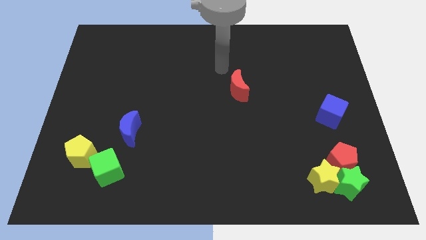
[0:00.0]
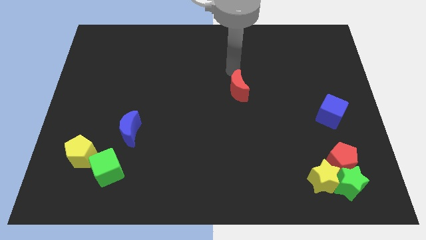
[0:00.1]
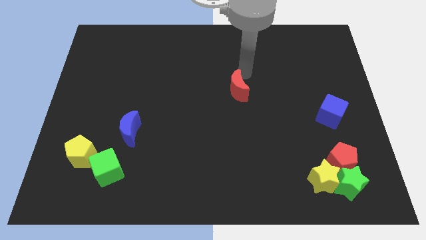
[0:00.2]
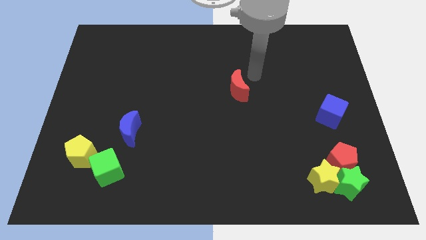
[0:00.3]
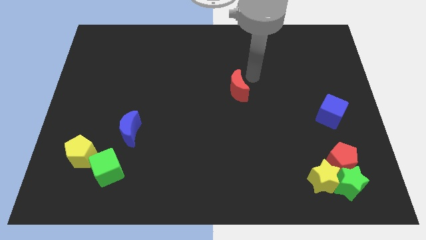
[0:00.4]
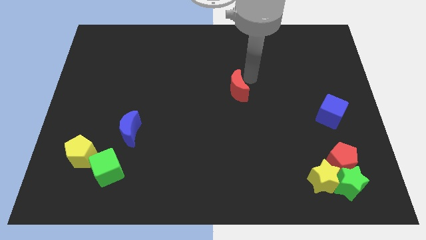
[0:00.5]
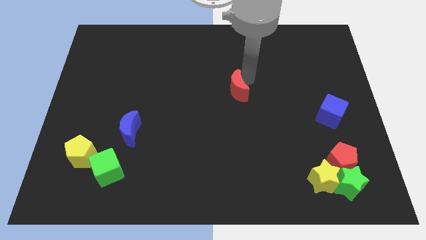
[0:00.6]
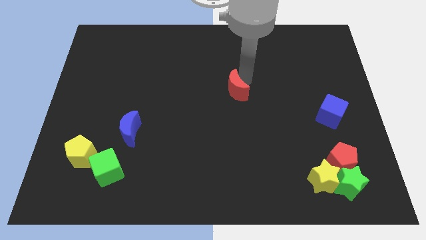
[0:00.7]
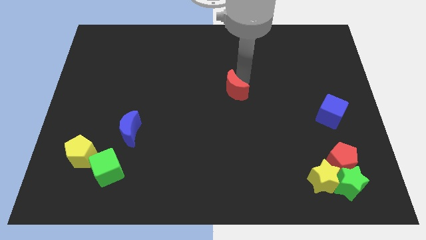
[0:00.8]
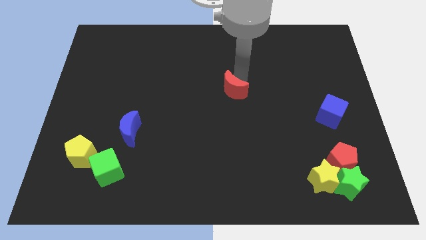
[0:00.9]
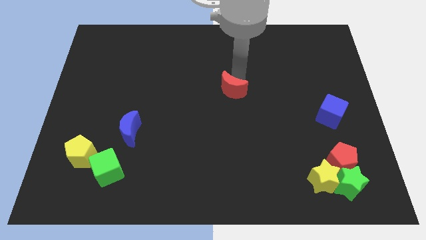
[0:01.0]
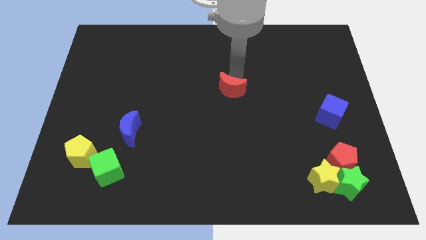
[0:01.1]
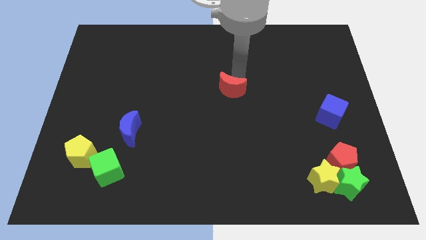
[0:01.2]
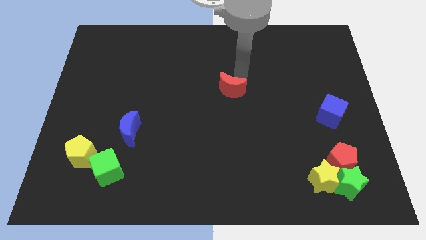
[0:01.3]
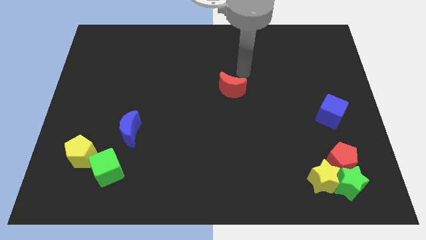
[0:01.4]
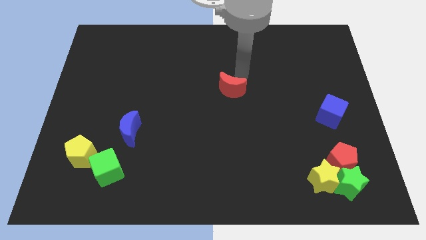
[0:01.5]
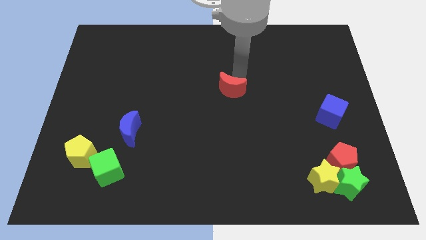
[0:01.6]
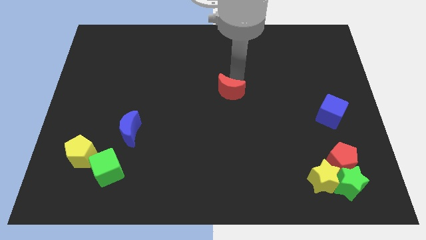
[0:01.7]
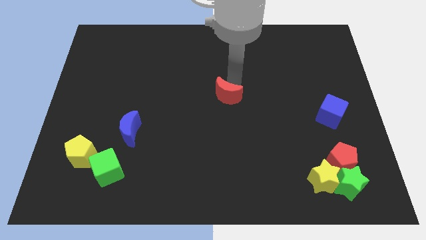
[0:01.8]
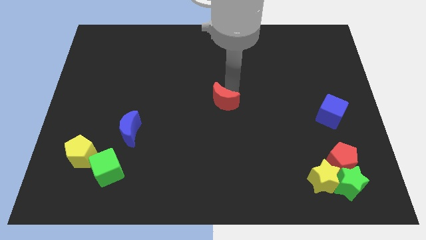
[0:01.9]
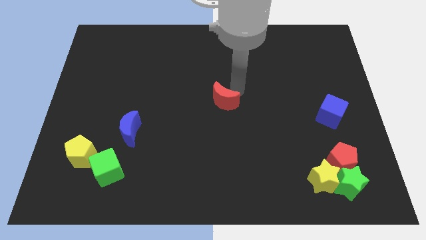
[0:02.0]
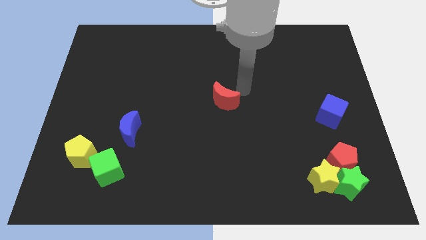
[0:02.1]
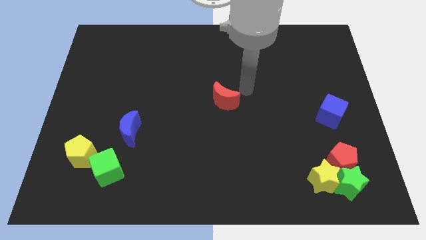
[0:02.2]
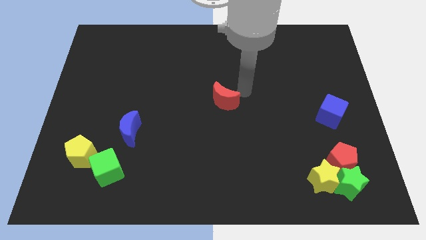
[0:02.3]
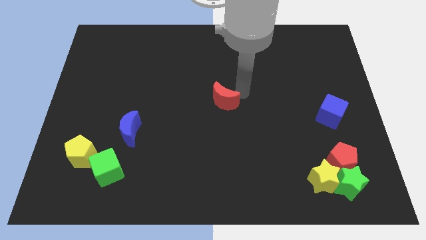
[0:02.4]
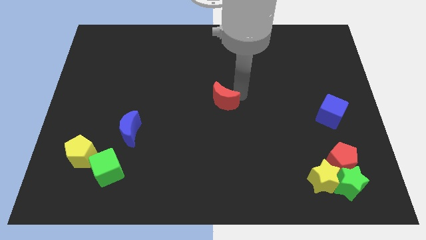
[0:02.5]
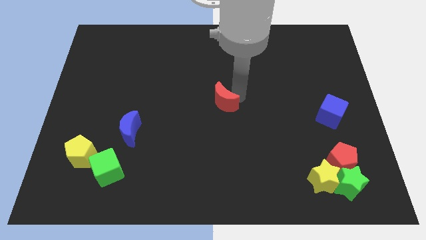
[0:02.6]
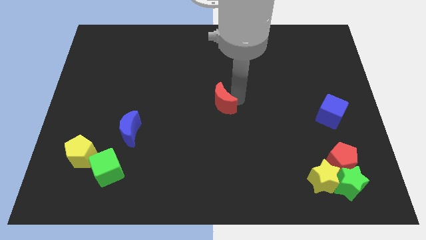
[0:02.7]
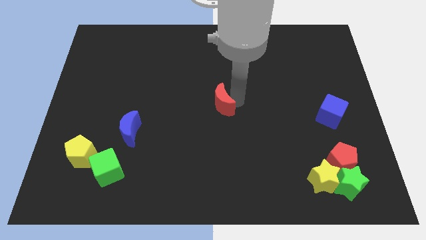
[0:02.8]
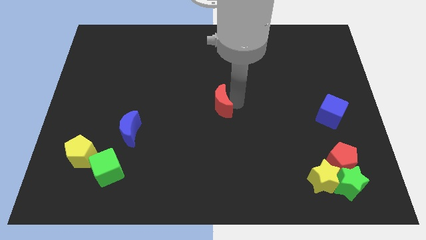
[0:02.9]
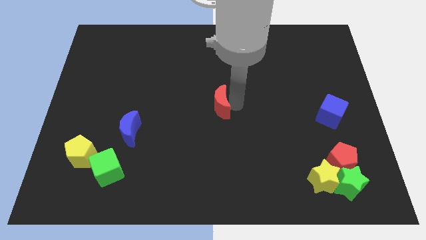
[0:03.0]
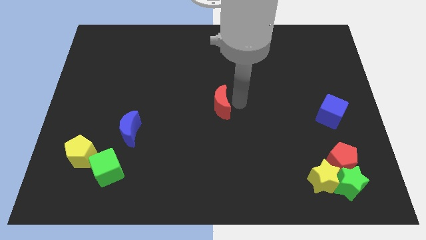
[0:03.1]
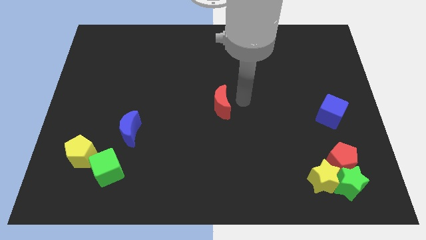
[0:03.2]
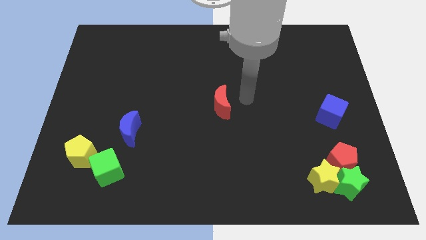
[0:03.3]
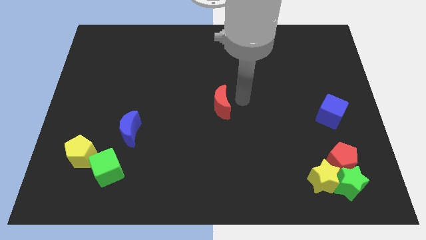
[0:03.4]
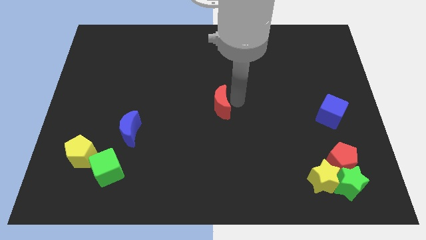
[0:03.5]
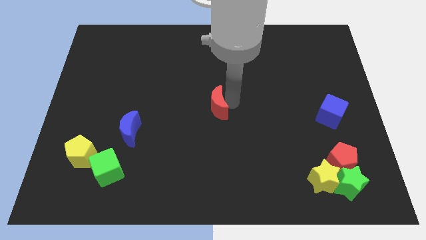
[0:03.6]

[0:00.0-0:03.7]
push the red moon diagonally down and to the left slightly

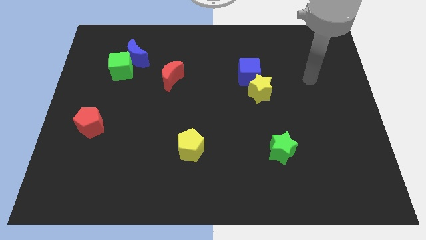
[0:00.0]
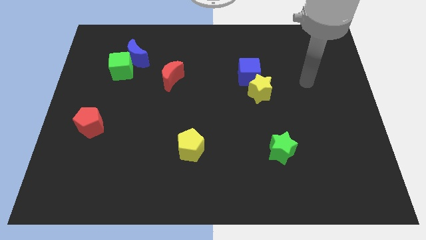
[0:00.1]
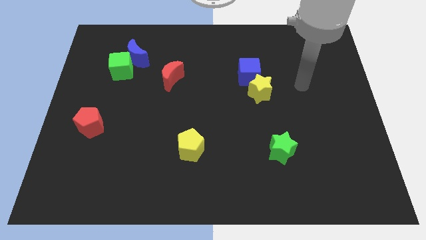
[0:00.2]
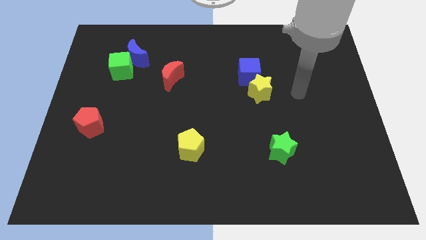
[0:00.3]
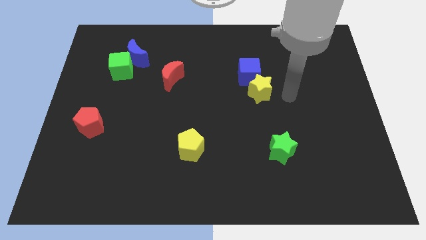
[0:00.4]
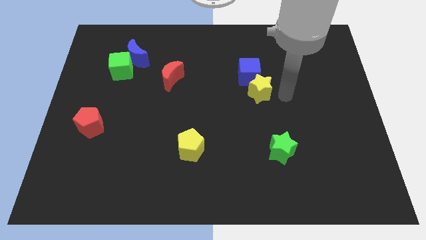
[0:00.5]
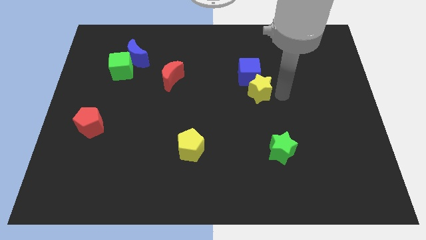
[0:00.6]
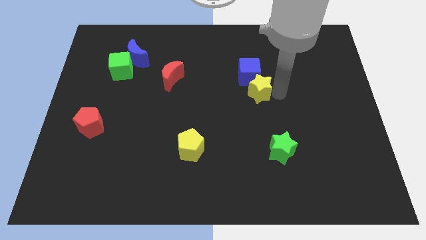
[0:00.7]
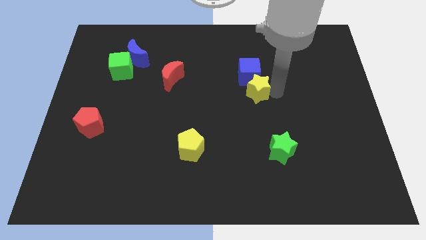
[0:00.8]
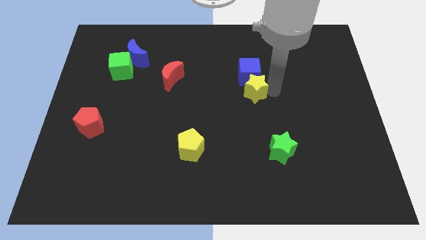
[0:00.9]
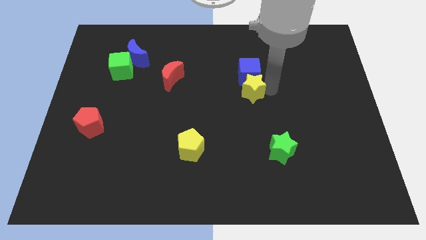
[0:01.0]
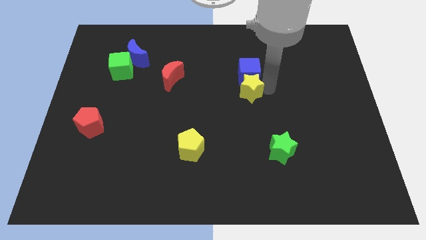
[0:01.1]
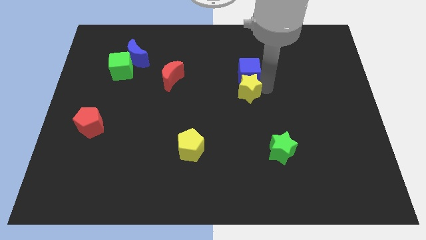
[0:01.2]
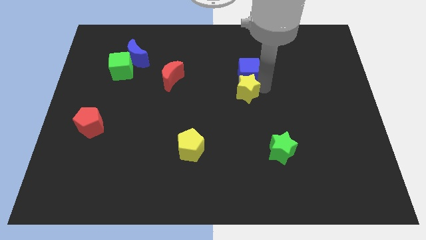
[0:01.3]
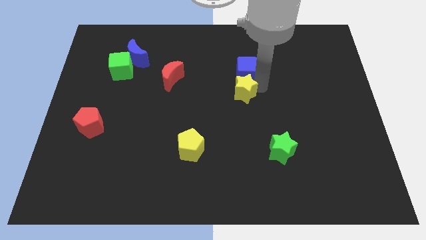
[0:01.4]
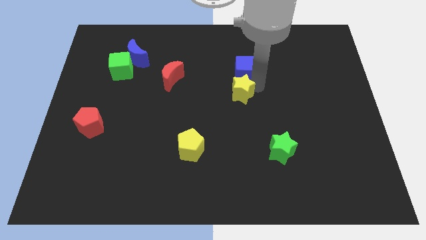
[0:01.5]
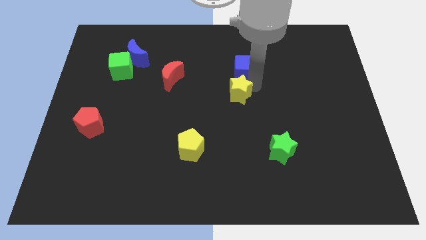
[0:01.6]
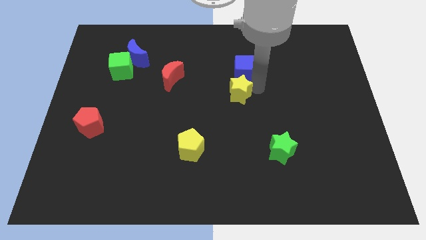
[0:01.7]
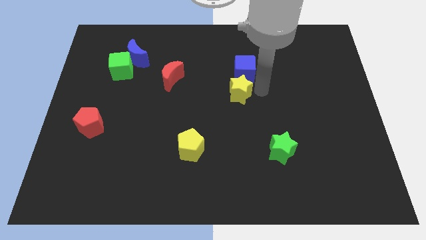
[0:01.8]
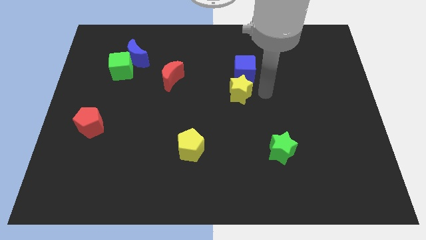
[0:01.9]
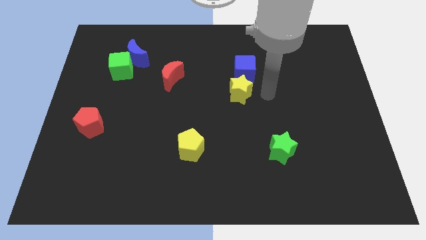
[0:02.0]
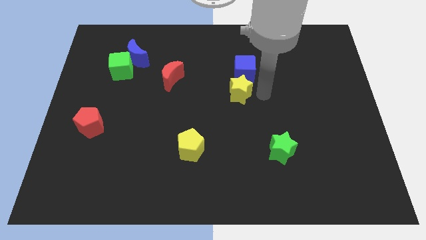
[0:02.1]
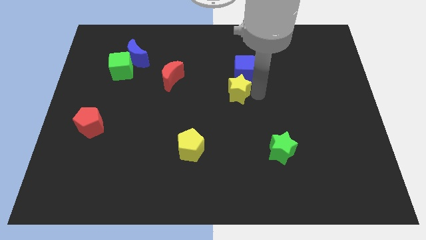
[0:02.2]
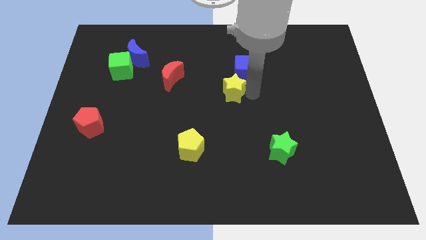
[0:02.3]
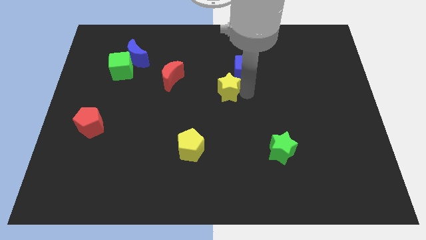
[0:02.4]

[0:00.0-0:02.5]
move the yellow star a little to the left

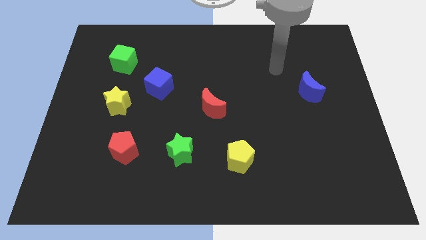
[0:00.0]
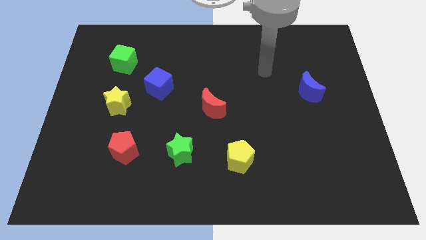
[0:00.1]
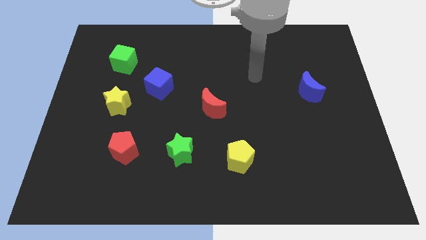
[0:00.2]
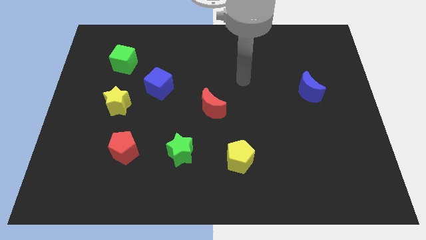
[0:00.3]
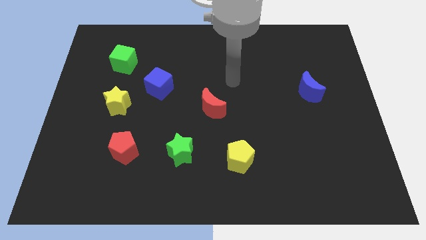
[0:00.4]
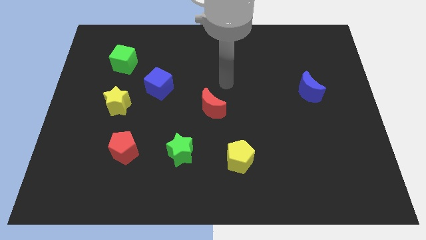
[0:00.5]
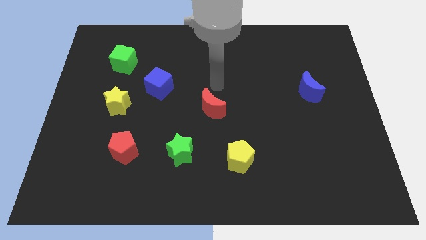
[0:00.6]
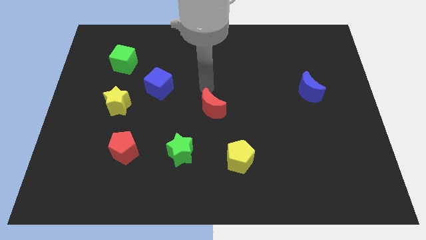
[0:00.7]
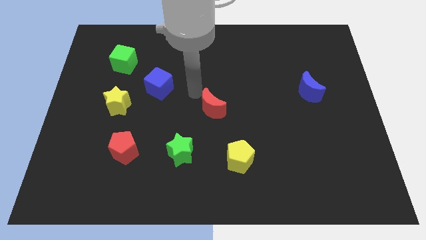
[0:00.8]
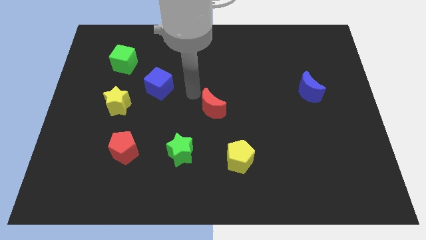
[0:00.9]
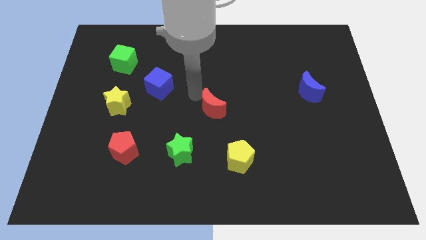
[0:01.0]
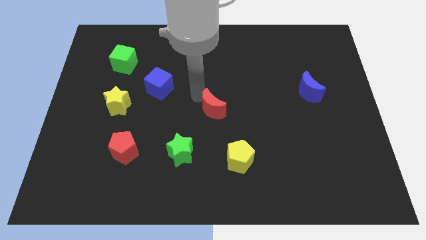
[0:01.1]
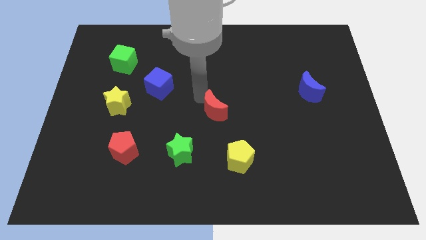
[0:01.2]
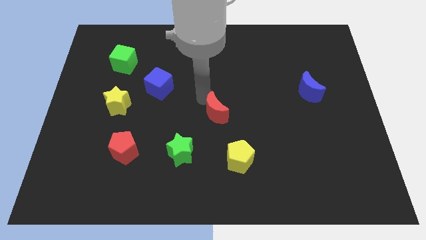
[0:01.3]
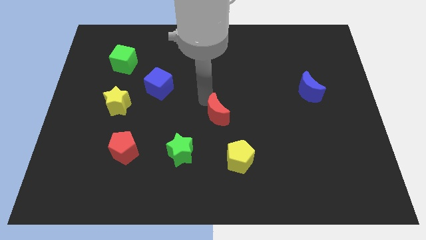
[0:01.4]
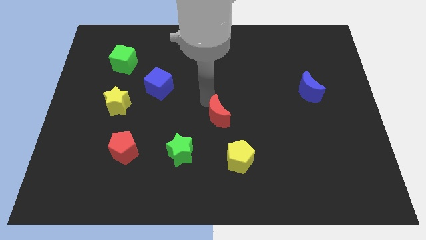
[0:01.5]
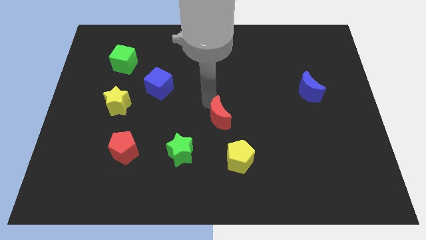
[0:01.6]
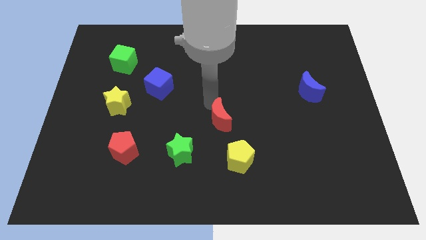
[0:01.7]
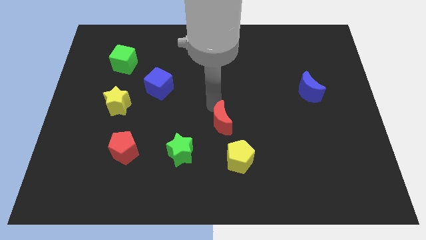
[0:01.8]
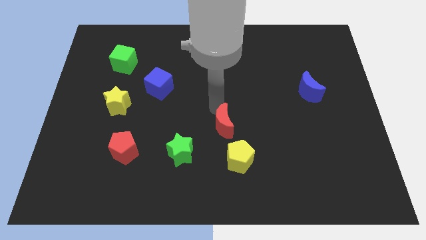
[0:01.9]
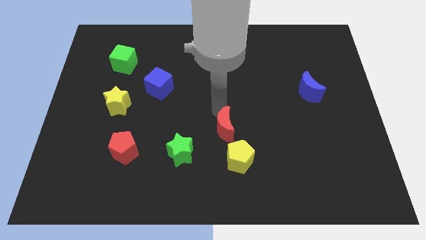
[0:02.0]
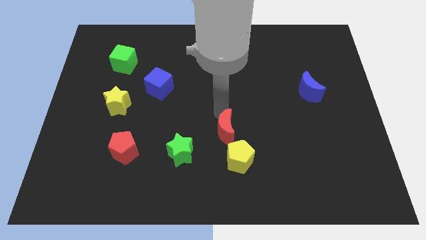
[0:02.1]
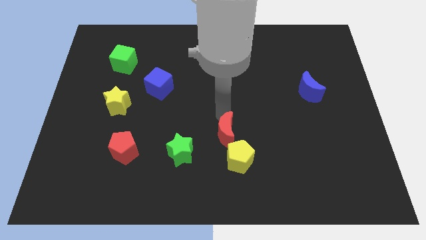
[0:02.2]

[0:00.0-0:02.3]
slide the red moon down and right slightly
